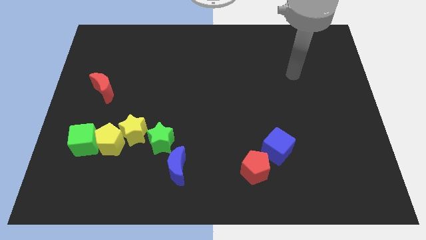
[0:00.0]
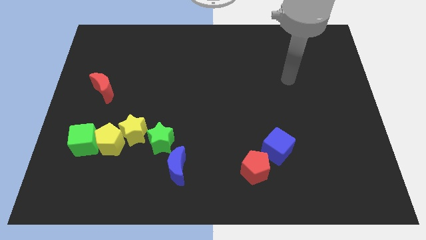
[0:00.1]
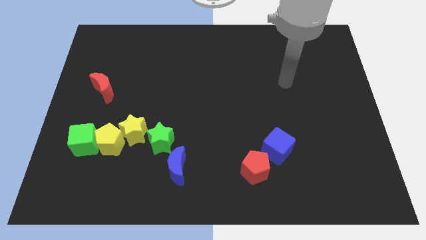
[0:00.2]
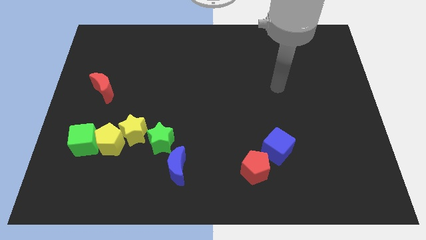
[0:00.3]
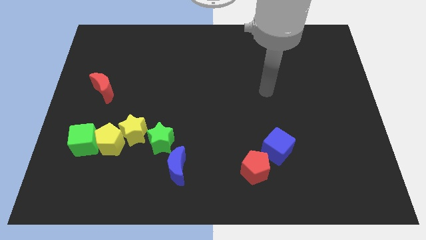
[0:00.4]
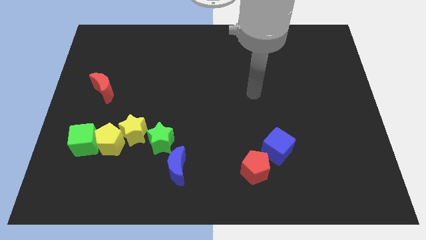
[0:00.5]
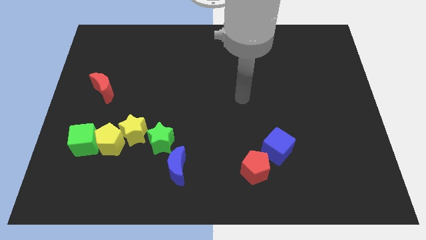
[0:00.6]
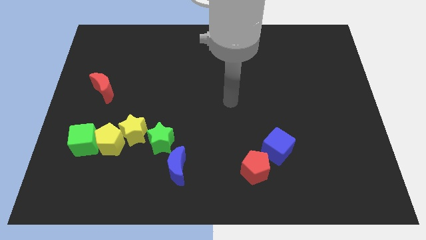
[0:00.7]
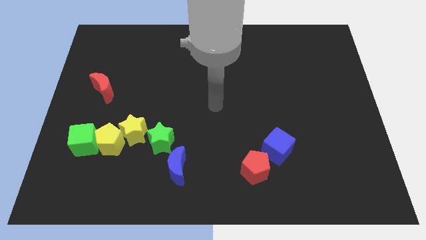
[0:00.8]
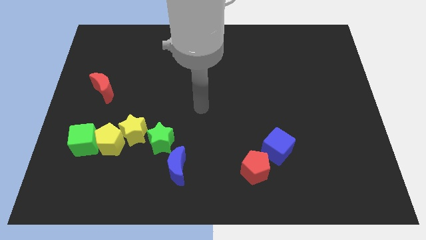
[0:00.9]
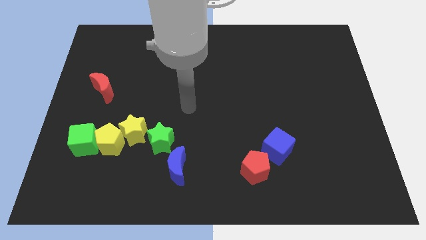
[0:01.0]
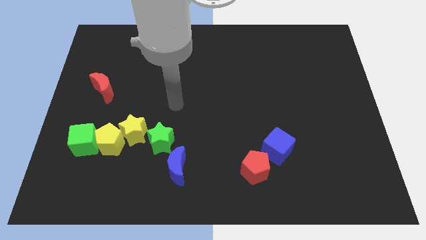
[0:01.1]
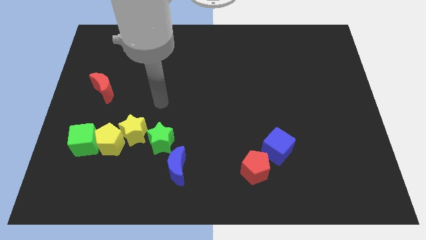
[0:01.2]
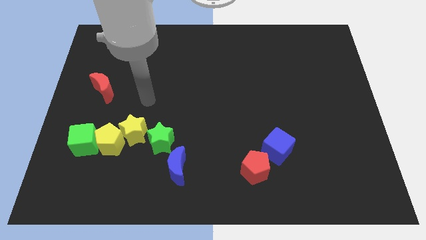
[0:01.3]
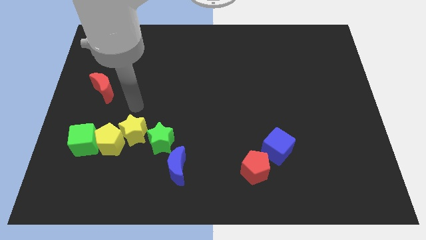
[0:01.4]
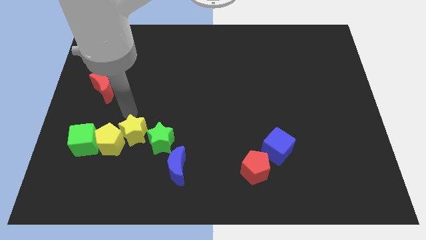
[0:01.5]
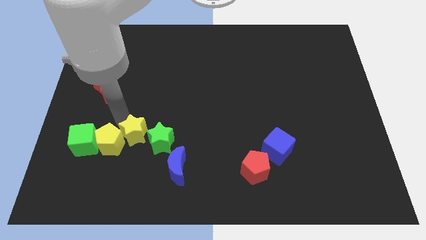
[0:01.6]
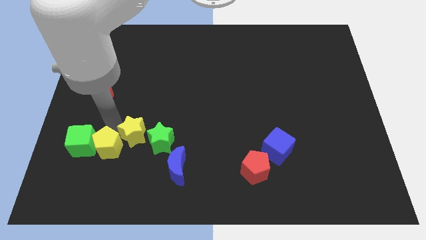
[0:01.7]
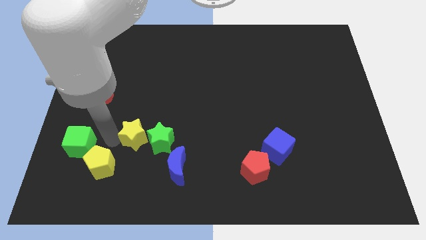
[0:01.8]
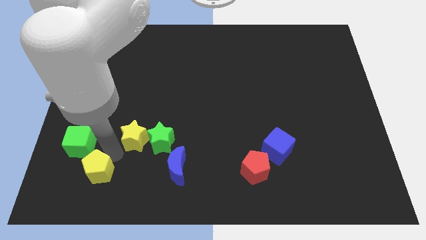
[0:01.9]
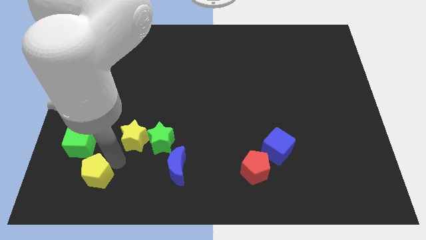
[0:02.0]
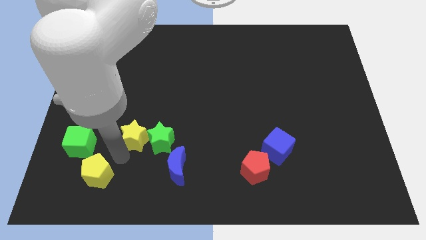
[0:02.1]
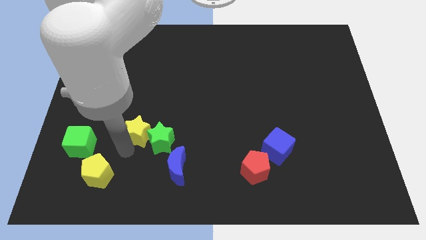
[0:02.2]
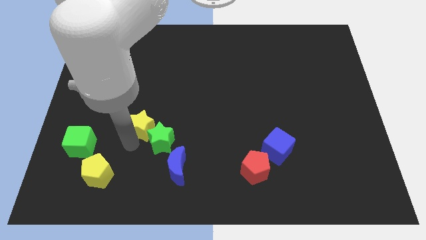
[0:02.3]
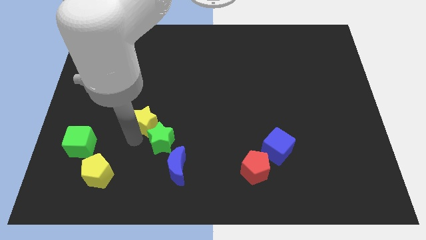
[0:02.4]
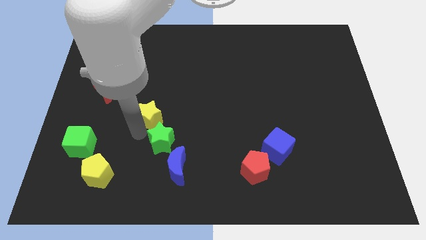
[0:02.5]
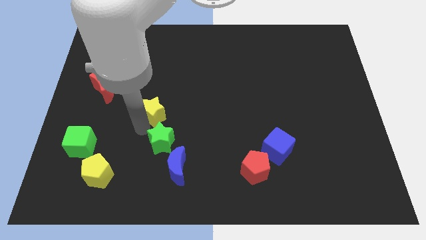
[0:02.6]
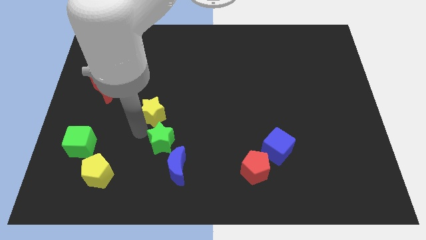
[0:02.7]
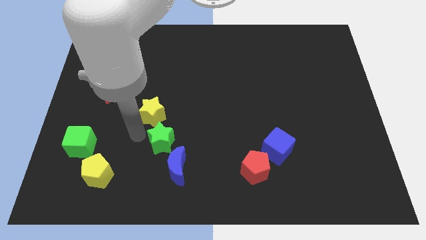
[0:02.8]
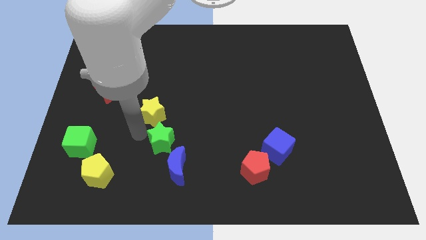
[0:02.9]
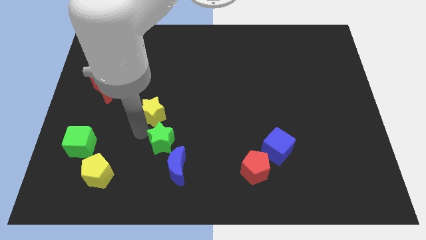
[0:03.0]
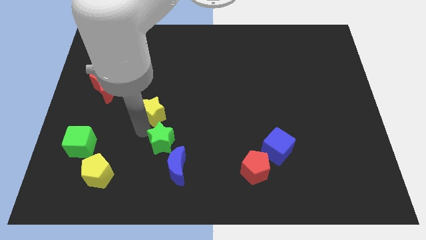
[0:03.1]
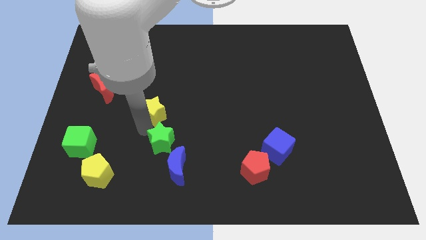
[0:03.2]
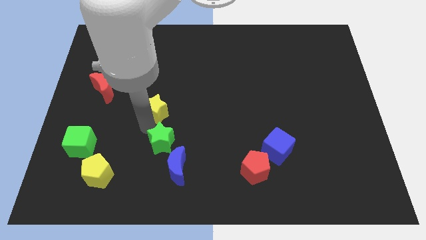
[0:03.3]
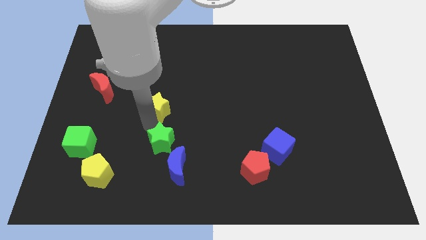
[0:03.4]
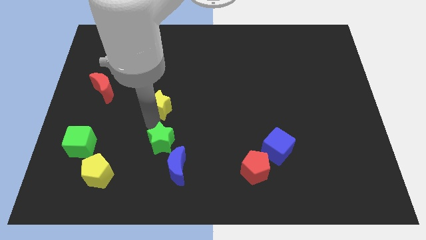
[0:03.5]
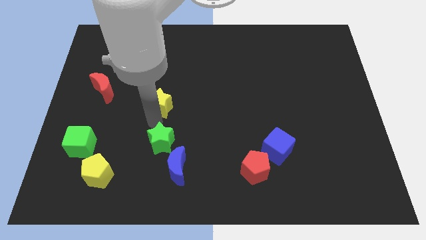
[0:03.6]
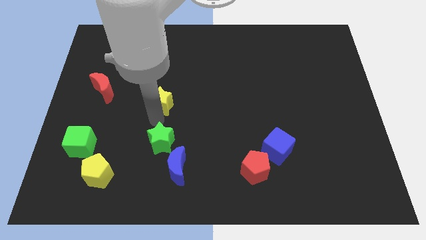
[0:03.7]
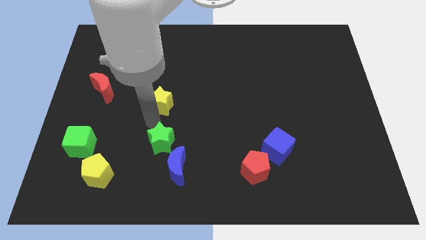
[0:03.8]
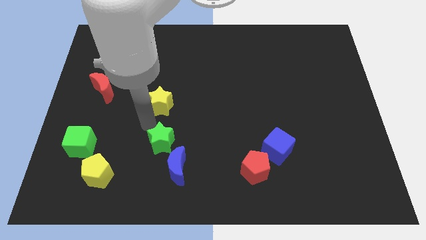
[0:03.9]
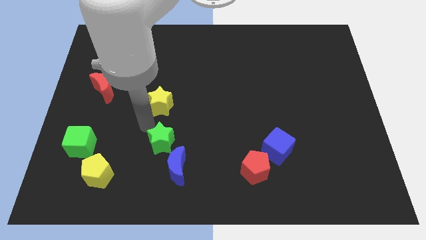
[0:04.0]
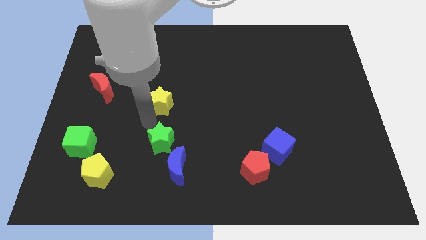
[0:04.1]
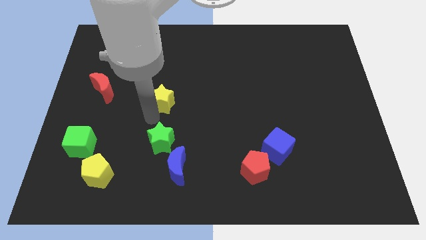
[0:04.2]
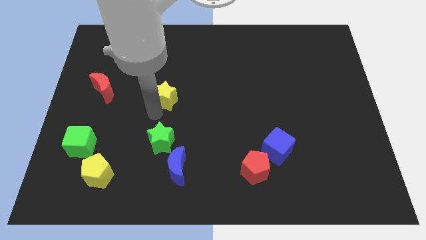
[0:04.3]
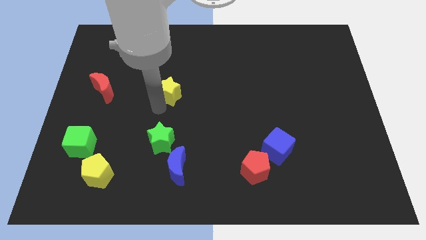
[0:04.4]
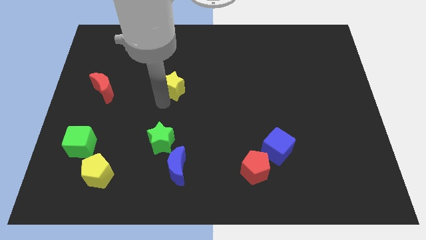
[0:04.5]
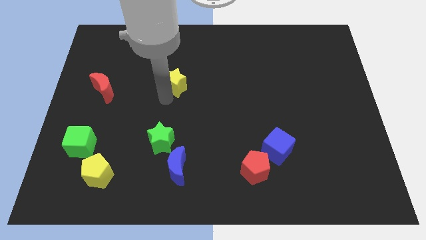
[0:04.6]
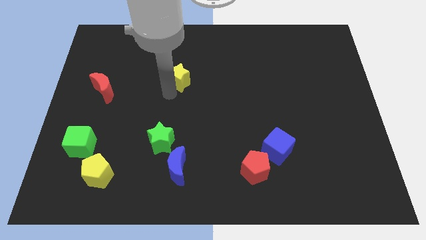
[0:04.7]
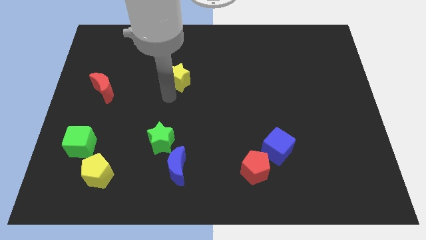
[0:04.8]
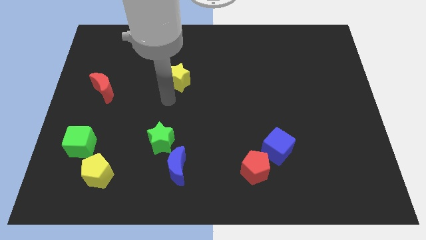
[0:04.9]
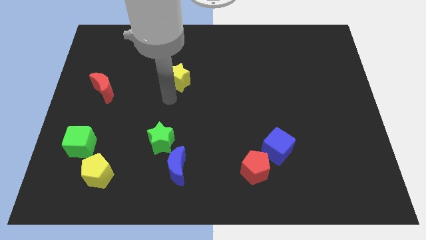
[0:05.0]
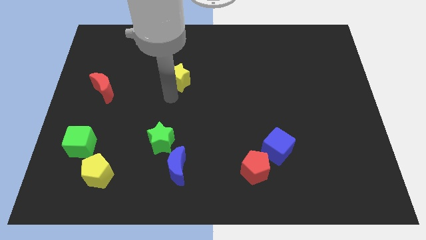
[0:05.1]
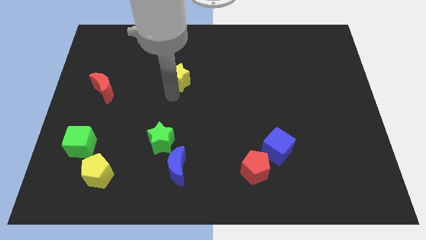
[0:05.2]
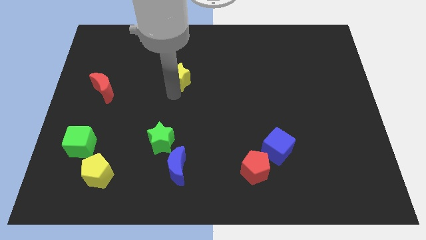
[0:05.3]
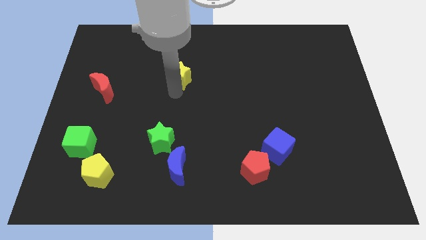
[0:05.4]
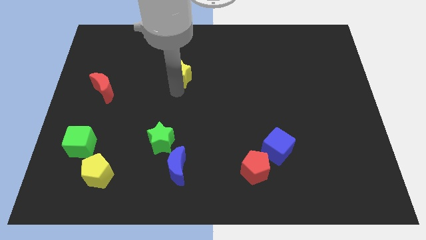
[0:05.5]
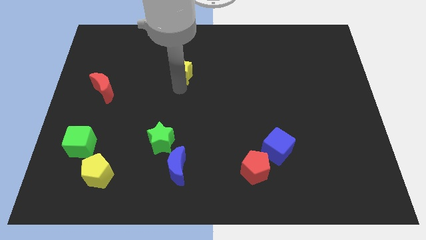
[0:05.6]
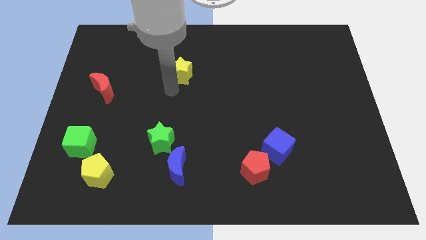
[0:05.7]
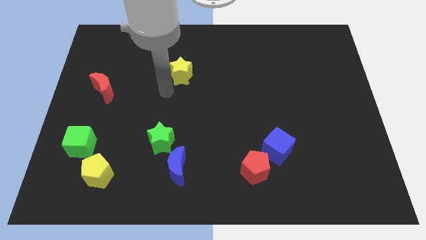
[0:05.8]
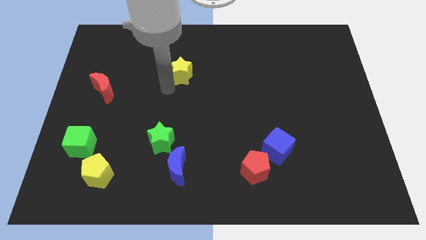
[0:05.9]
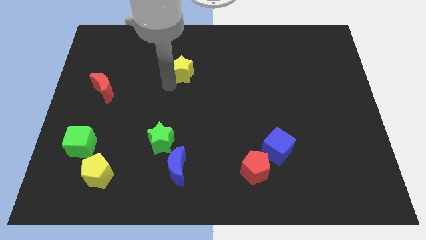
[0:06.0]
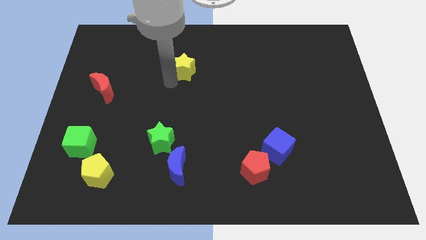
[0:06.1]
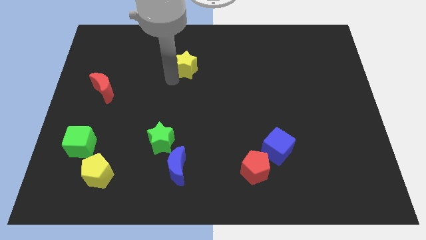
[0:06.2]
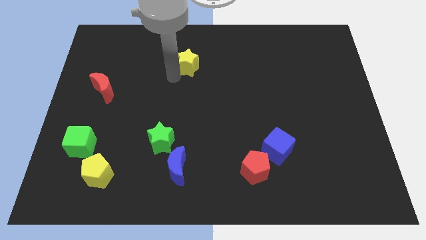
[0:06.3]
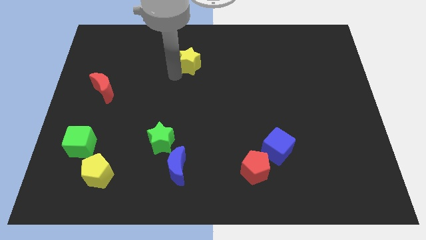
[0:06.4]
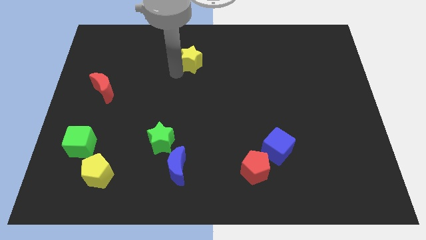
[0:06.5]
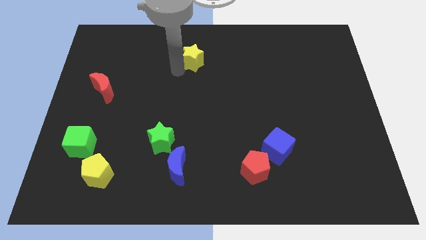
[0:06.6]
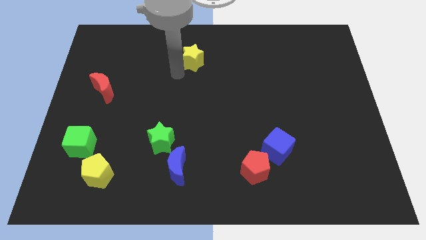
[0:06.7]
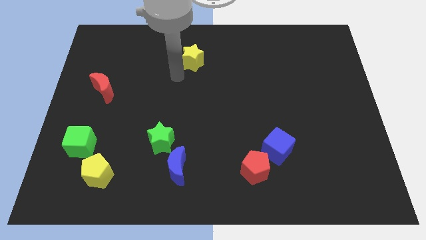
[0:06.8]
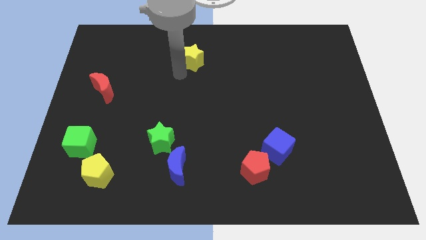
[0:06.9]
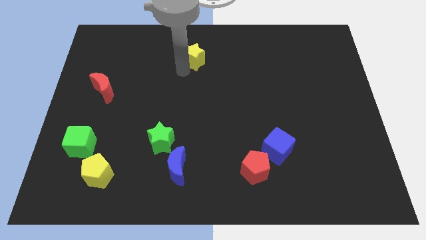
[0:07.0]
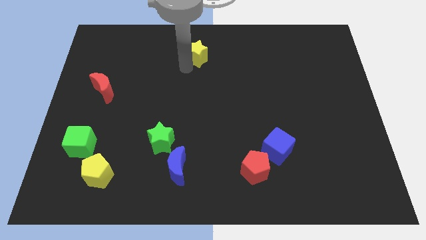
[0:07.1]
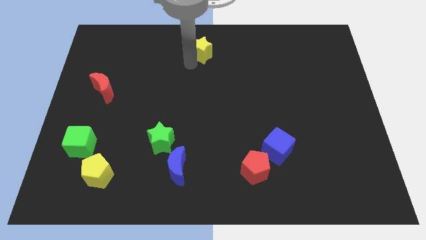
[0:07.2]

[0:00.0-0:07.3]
move the yellow star to the top side

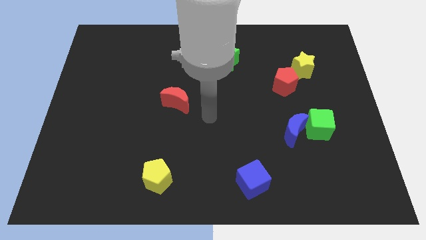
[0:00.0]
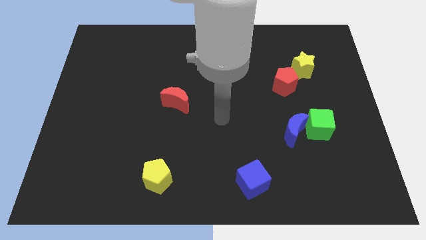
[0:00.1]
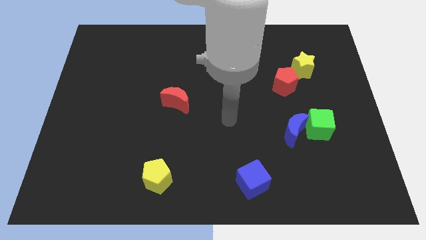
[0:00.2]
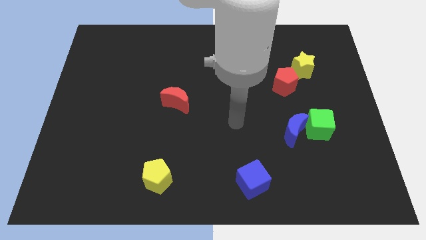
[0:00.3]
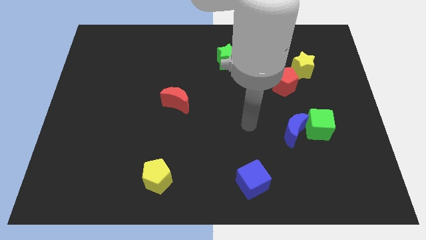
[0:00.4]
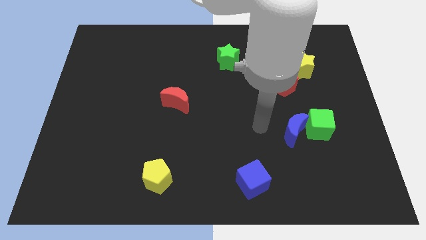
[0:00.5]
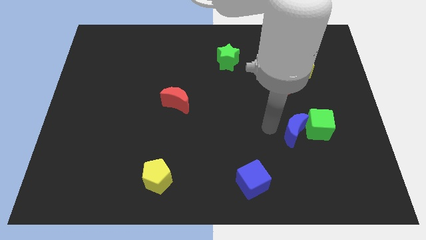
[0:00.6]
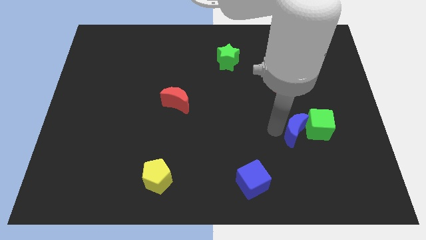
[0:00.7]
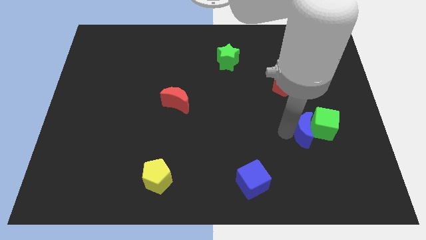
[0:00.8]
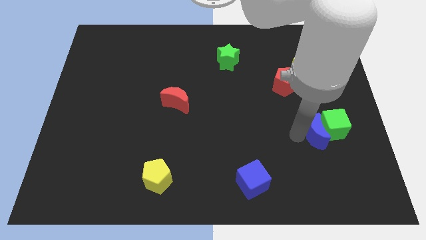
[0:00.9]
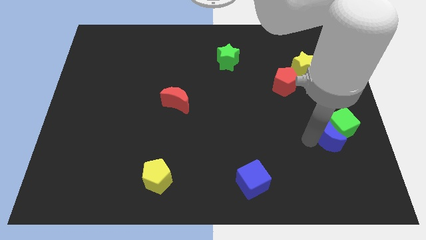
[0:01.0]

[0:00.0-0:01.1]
slide the green cube to the right side of the board
